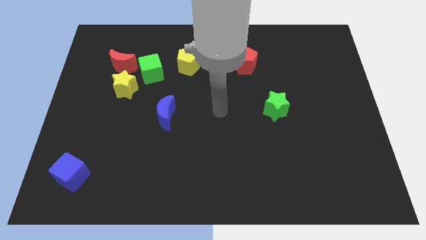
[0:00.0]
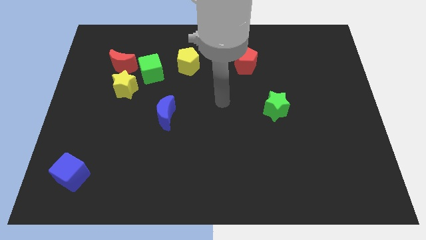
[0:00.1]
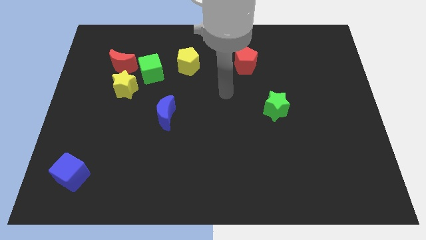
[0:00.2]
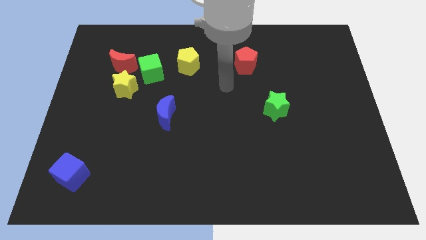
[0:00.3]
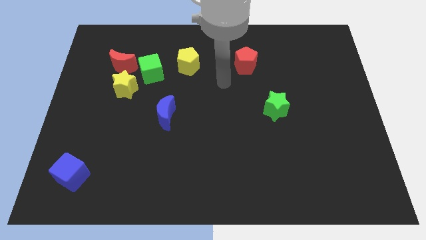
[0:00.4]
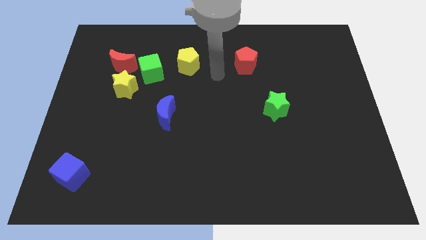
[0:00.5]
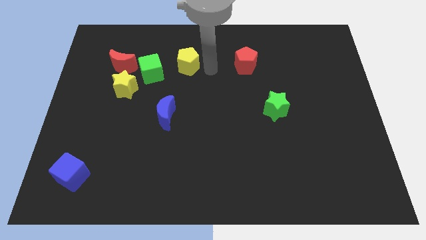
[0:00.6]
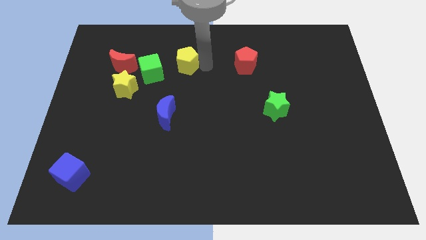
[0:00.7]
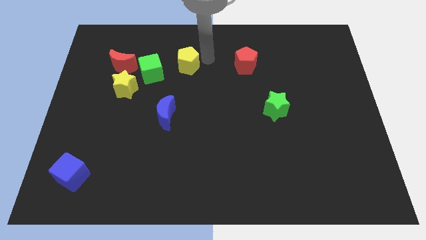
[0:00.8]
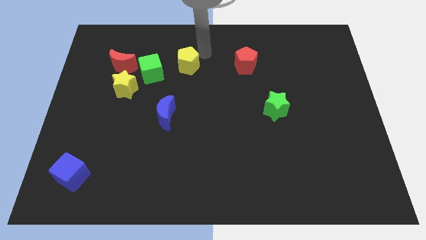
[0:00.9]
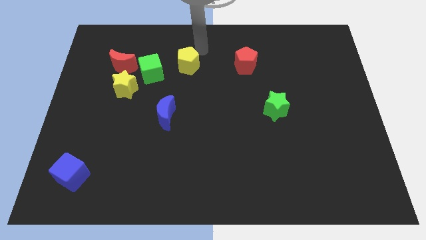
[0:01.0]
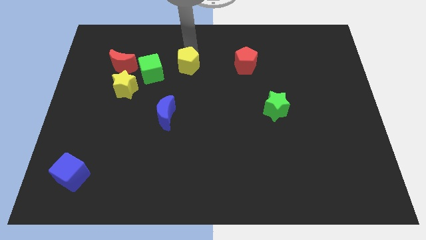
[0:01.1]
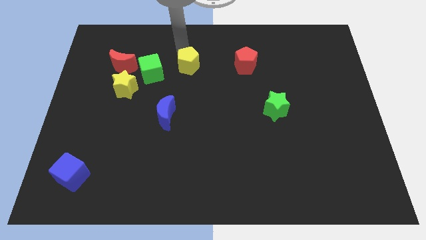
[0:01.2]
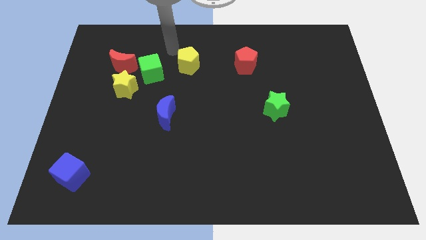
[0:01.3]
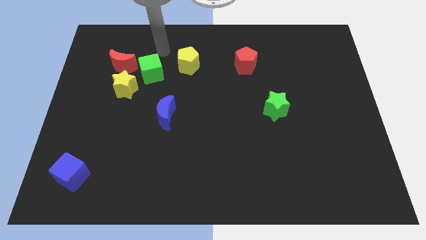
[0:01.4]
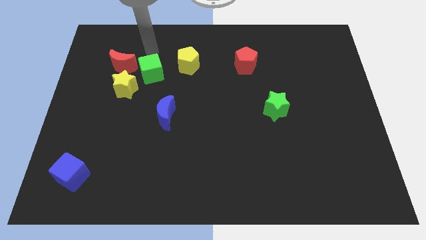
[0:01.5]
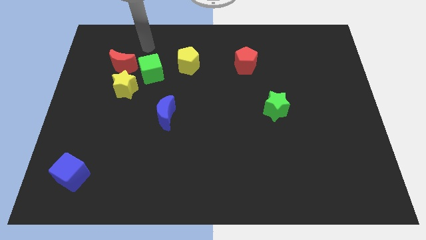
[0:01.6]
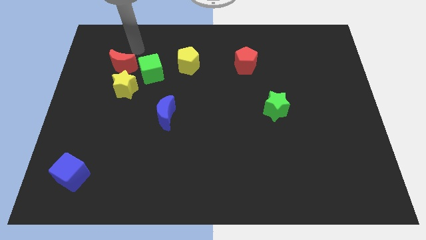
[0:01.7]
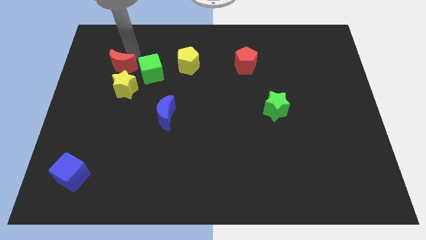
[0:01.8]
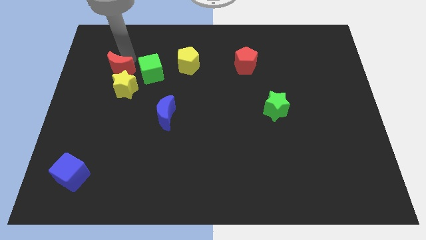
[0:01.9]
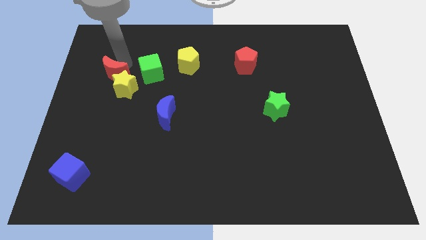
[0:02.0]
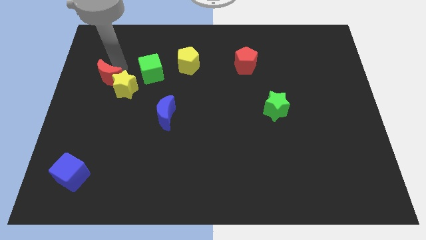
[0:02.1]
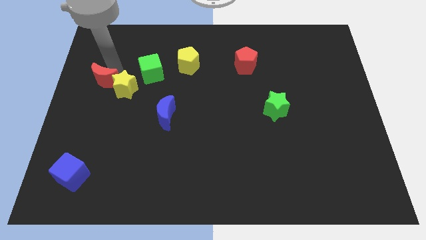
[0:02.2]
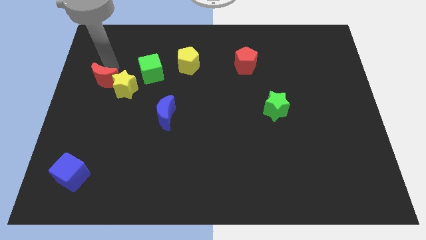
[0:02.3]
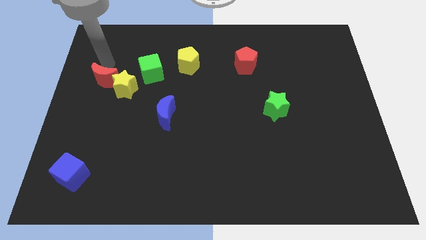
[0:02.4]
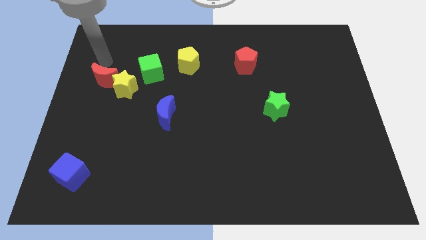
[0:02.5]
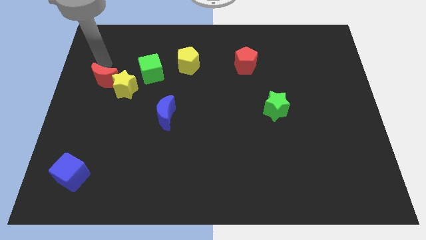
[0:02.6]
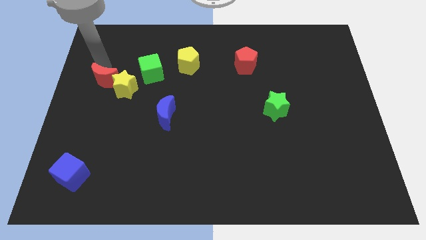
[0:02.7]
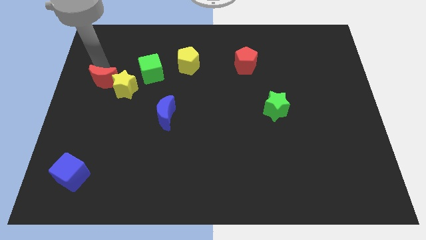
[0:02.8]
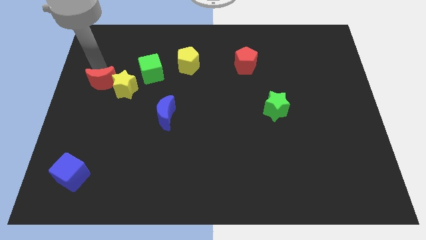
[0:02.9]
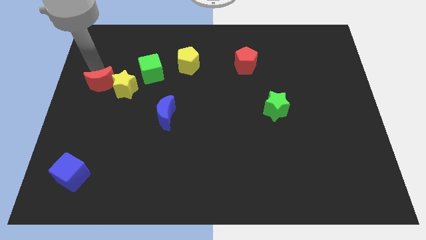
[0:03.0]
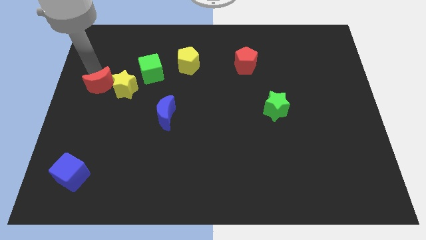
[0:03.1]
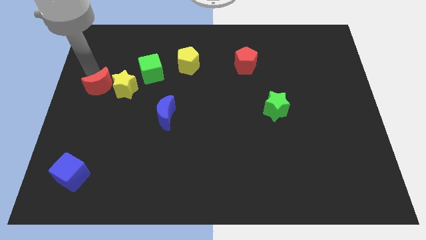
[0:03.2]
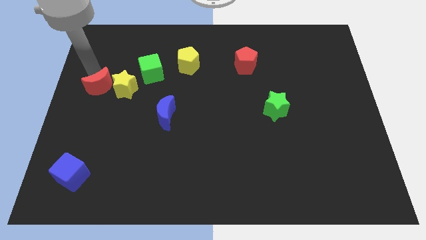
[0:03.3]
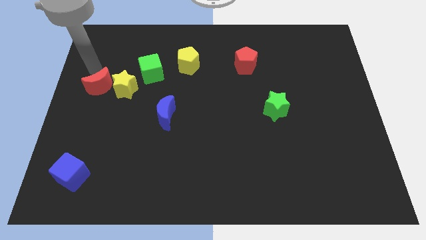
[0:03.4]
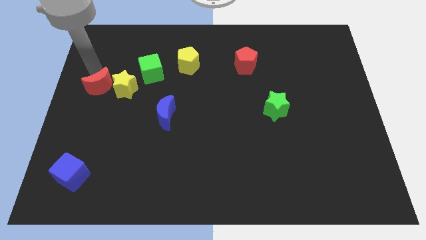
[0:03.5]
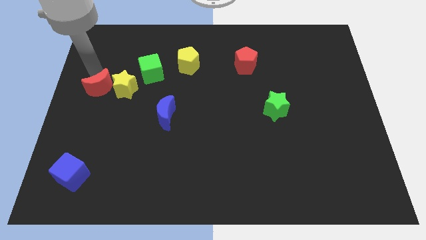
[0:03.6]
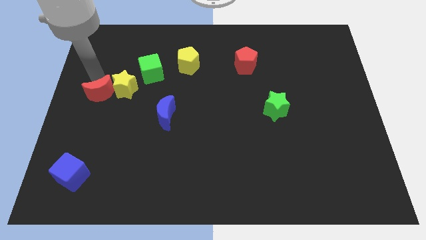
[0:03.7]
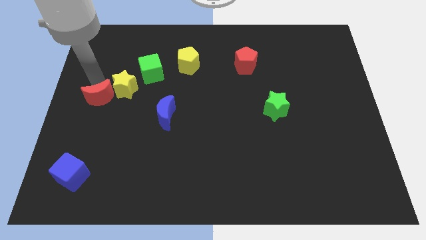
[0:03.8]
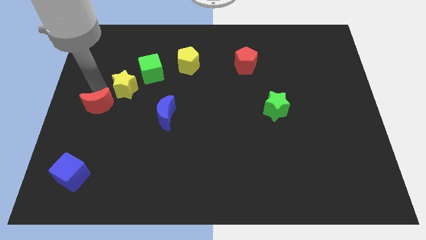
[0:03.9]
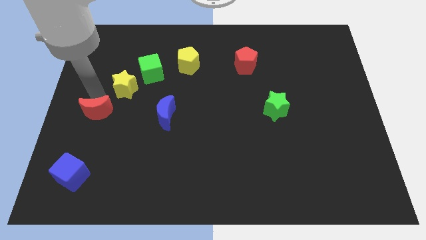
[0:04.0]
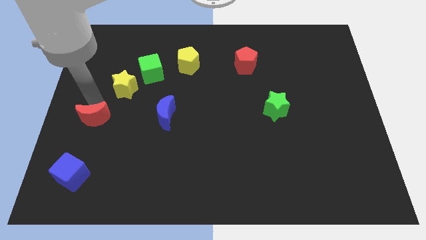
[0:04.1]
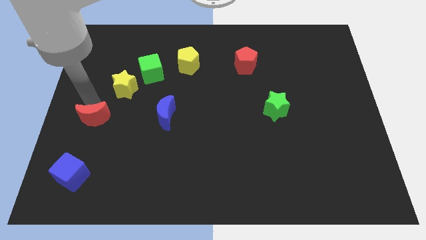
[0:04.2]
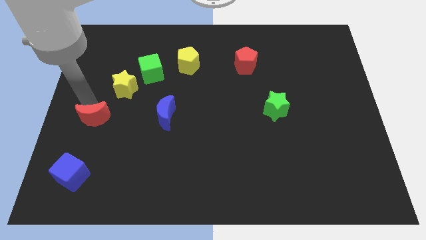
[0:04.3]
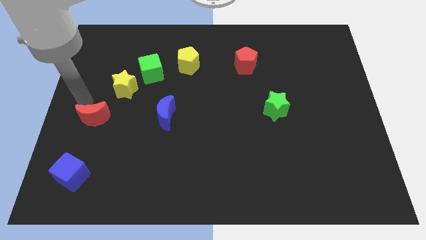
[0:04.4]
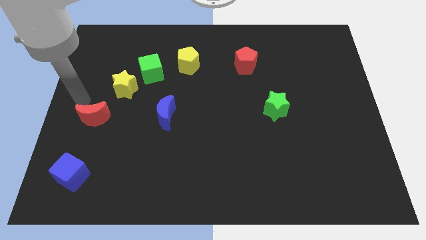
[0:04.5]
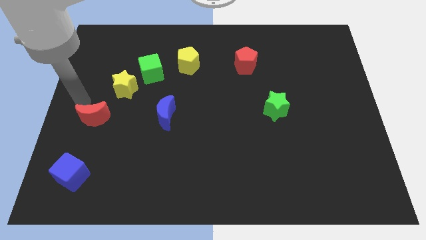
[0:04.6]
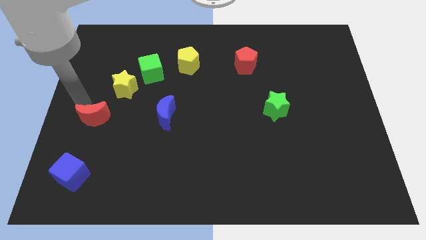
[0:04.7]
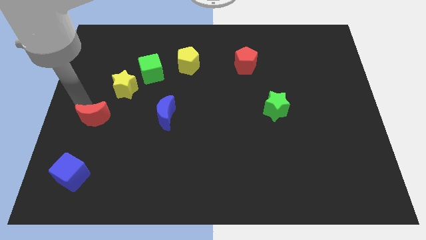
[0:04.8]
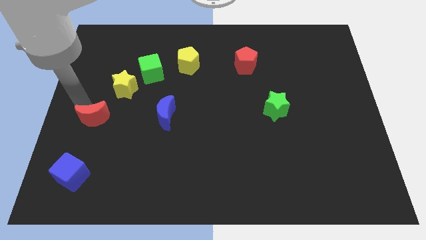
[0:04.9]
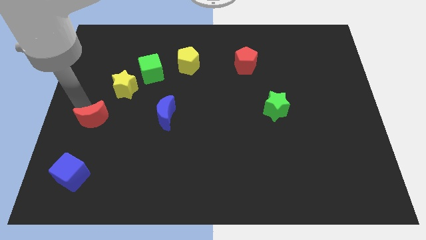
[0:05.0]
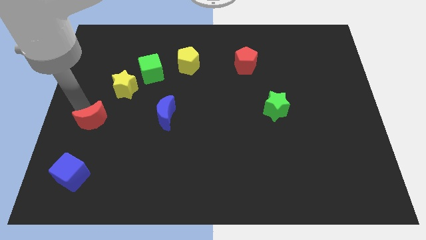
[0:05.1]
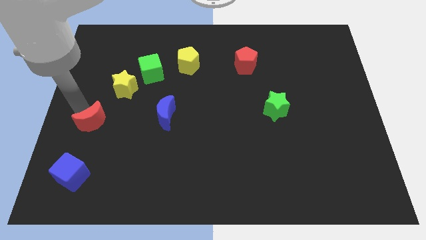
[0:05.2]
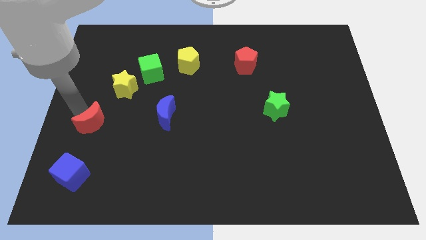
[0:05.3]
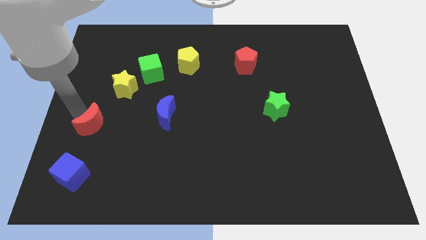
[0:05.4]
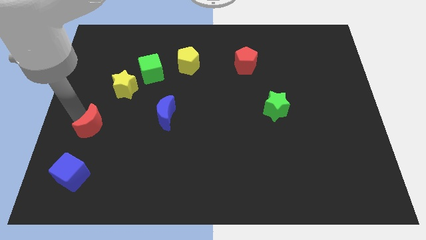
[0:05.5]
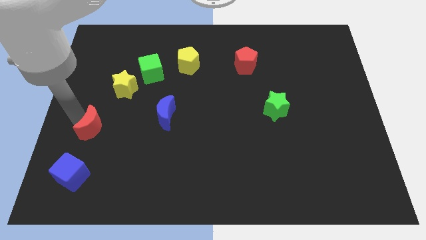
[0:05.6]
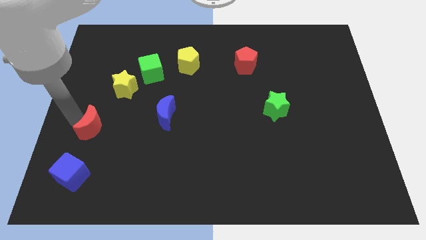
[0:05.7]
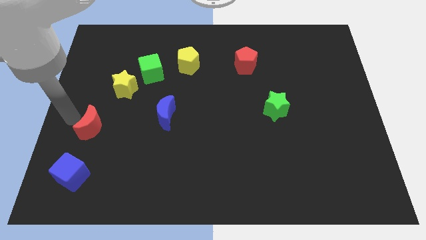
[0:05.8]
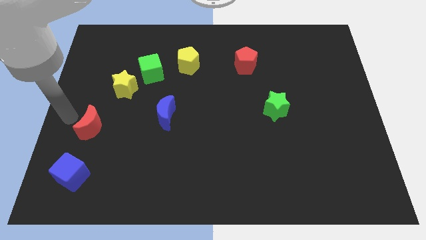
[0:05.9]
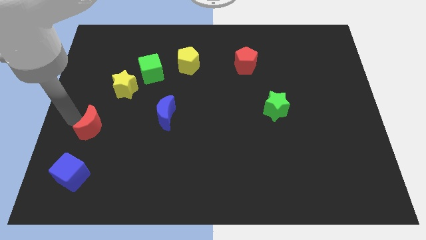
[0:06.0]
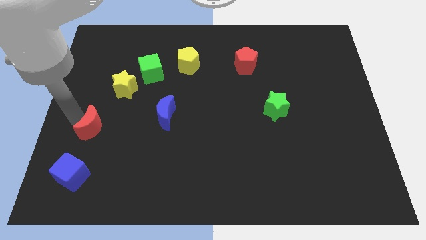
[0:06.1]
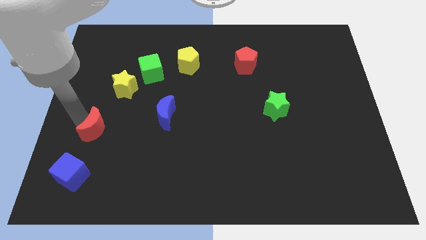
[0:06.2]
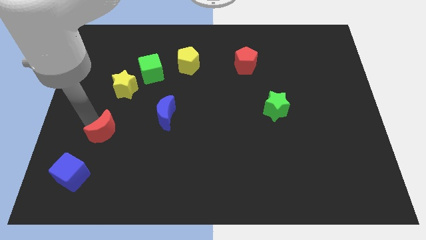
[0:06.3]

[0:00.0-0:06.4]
move the red moon downwards

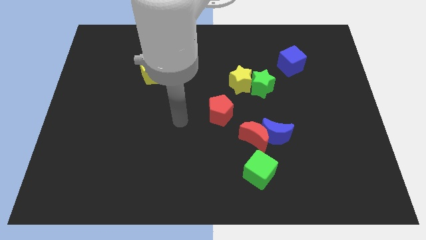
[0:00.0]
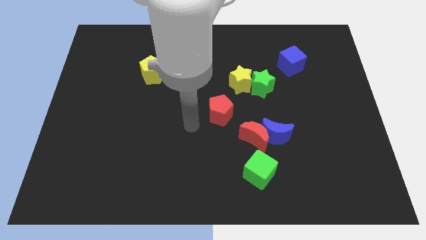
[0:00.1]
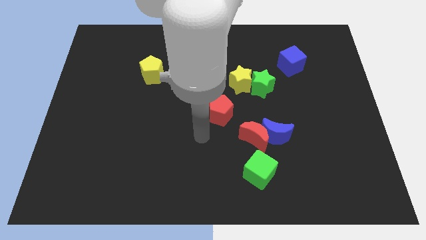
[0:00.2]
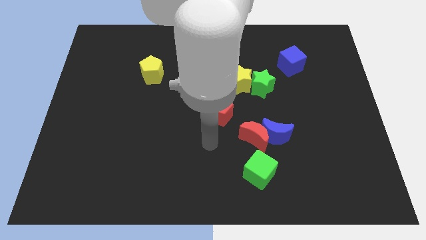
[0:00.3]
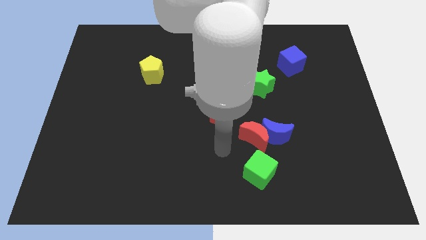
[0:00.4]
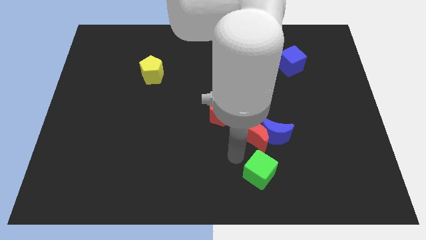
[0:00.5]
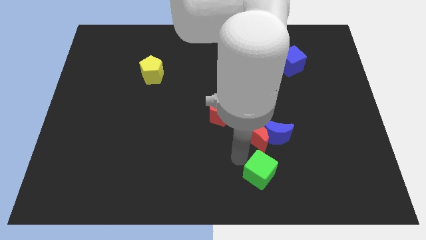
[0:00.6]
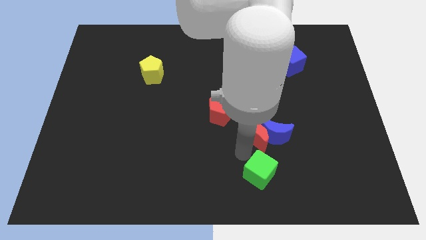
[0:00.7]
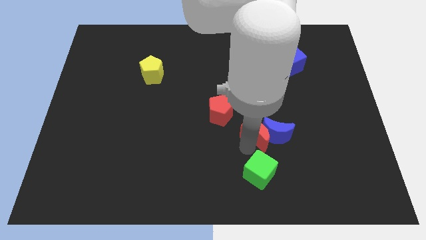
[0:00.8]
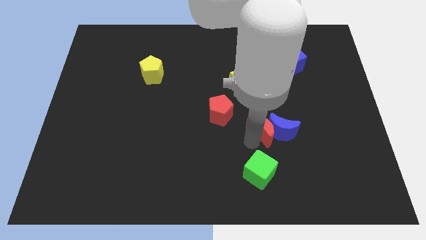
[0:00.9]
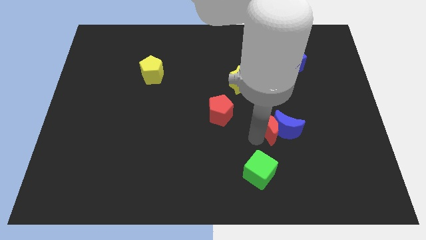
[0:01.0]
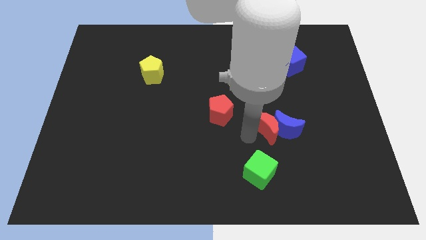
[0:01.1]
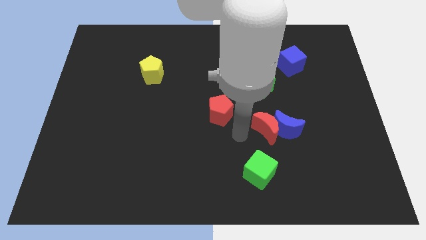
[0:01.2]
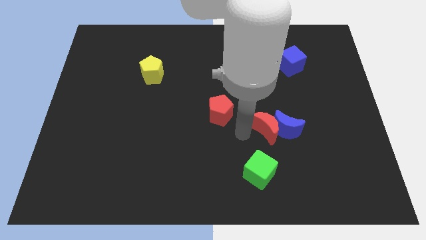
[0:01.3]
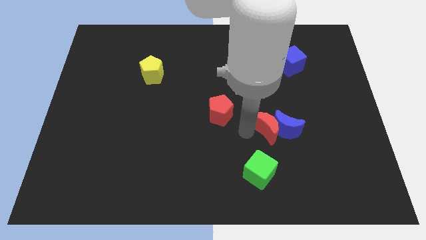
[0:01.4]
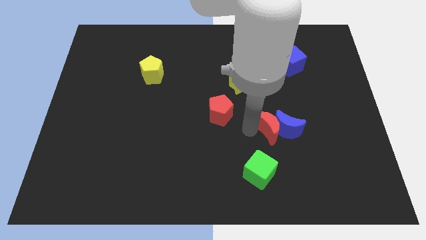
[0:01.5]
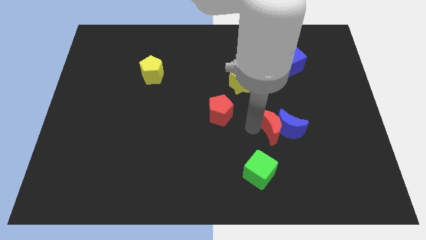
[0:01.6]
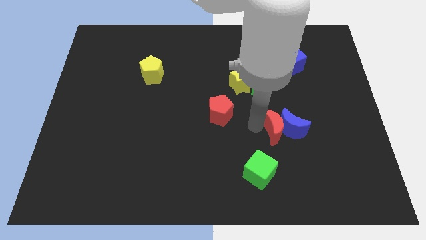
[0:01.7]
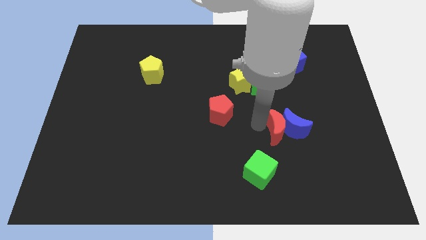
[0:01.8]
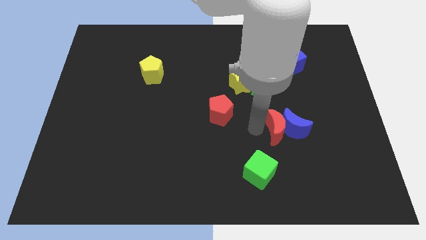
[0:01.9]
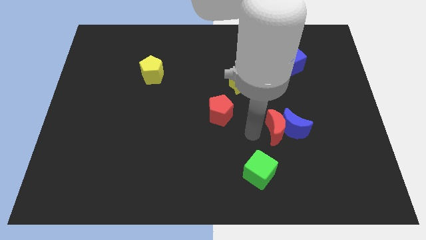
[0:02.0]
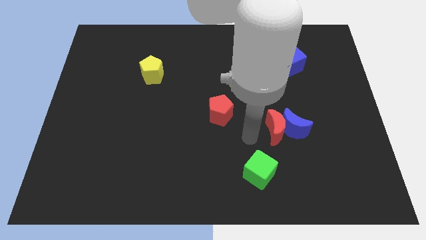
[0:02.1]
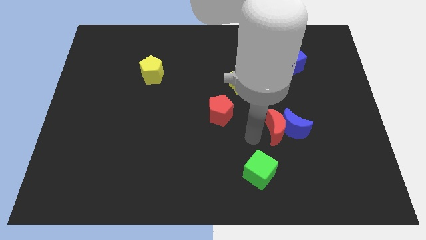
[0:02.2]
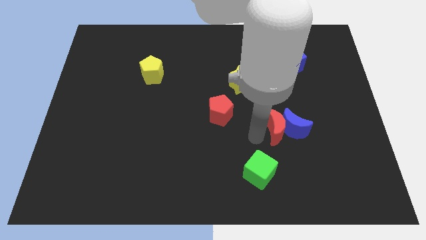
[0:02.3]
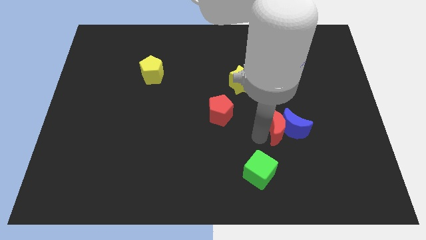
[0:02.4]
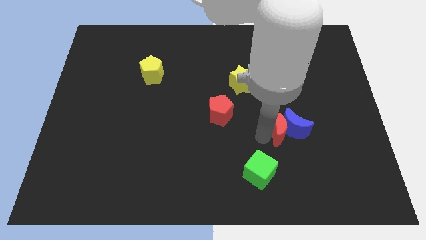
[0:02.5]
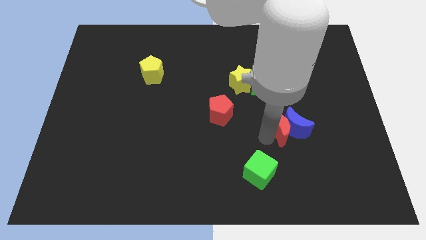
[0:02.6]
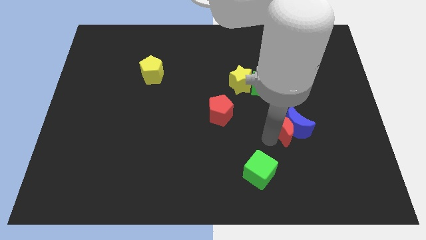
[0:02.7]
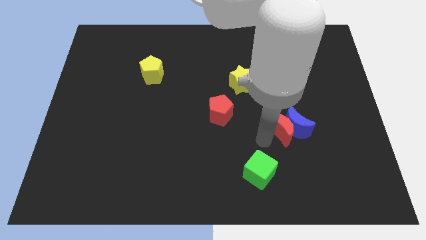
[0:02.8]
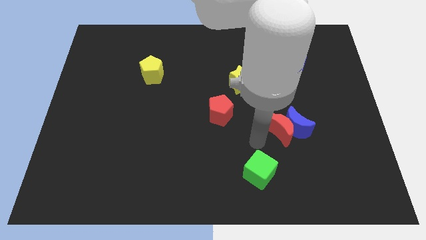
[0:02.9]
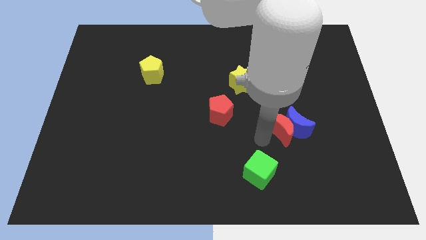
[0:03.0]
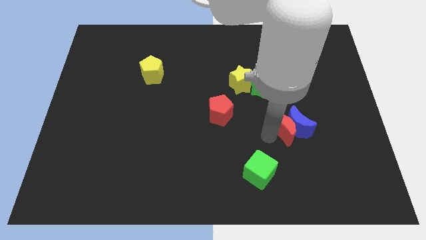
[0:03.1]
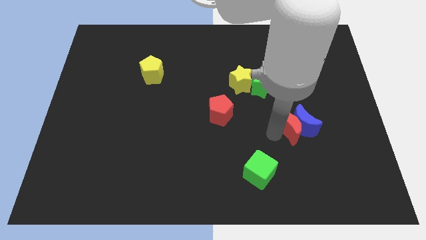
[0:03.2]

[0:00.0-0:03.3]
push the red moon slightly to the right
